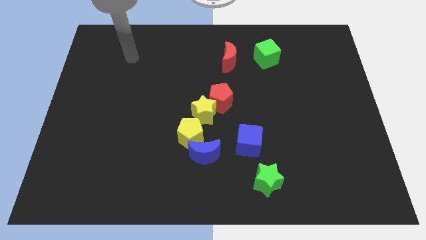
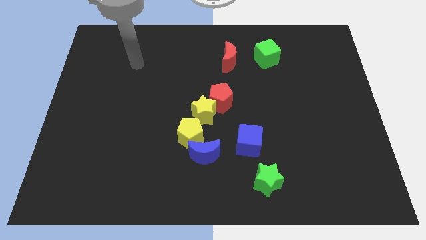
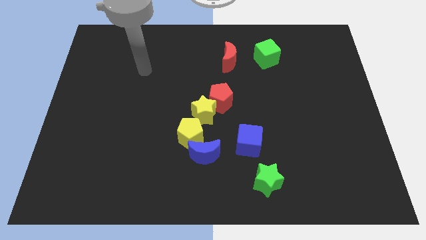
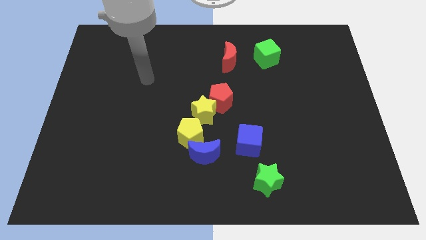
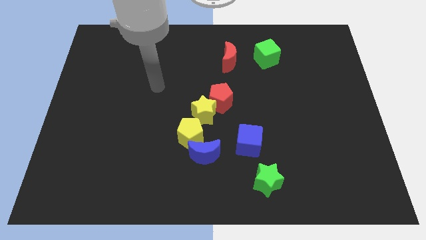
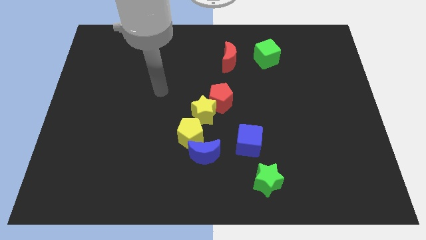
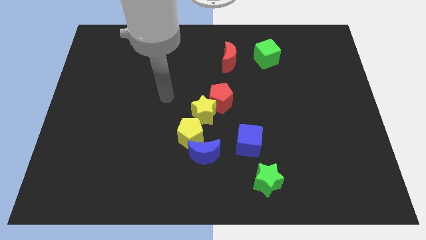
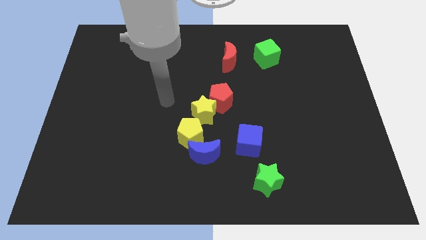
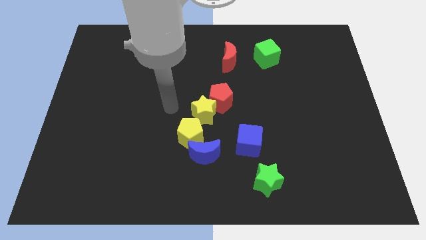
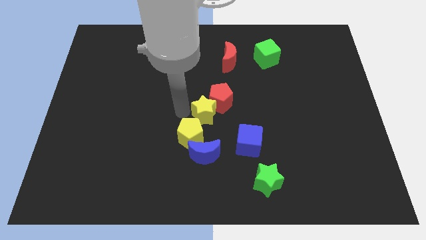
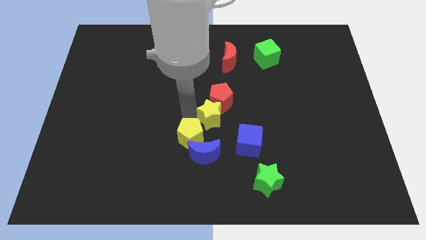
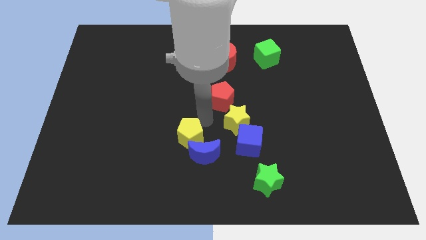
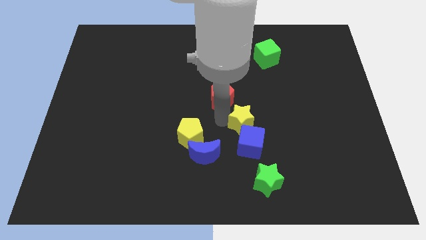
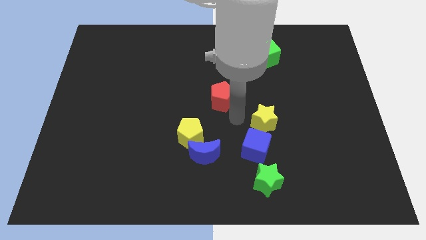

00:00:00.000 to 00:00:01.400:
pull the red pentagon apart from the yellow star

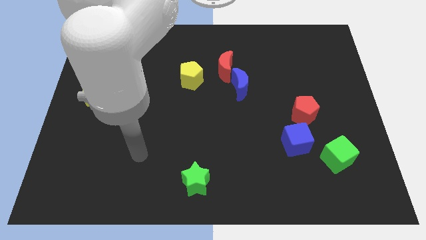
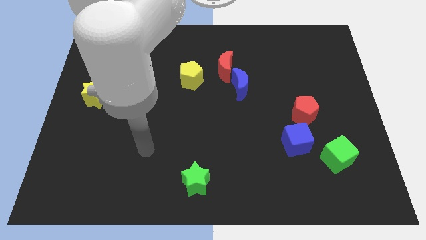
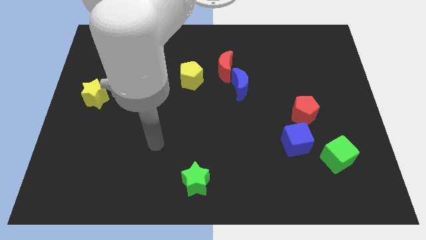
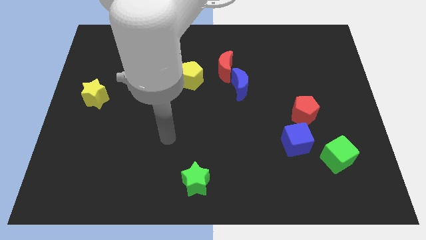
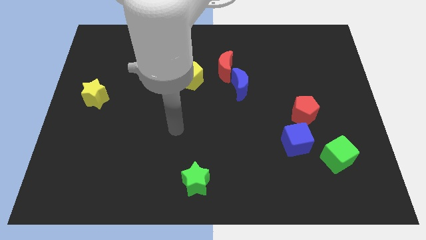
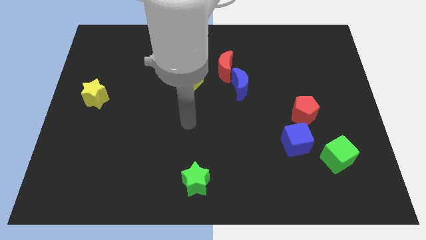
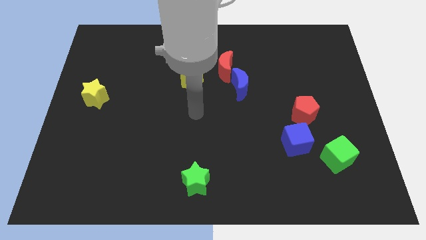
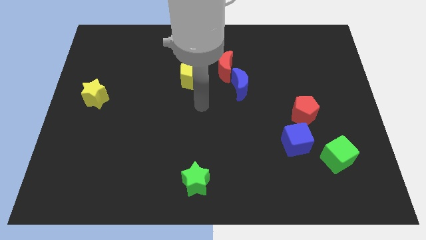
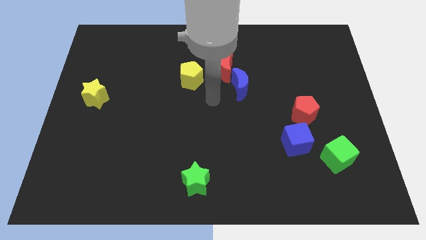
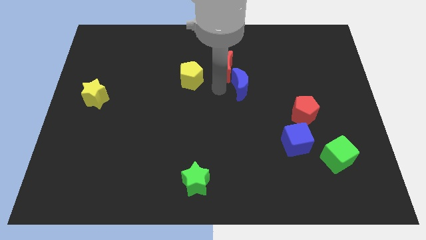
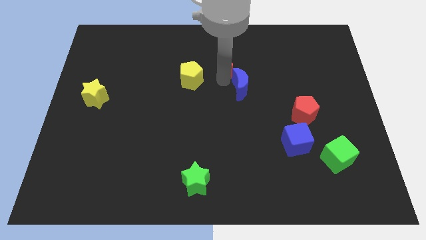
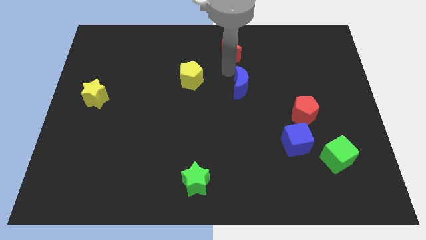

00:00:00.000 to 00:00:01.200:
separate the blue moon from the red moon

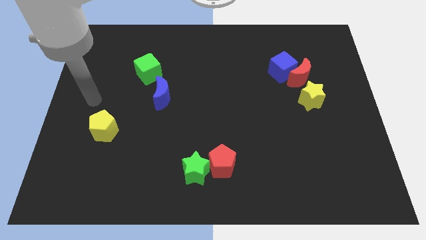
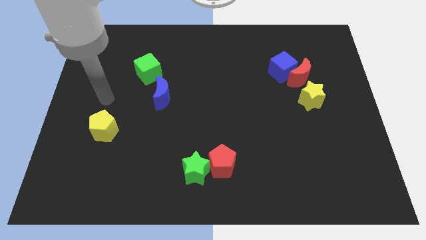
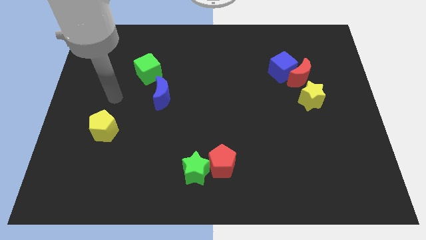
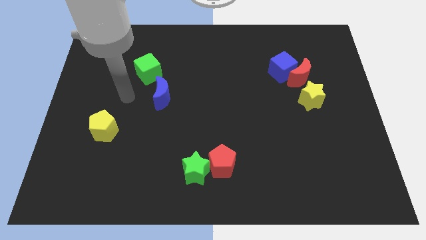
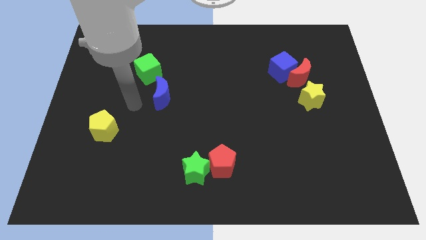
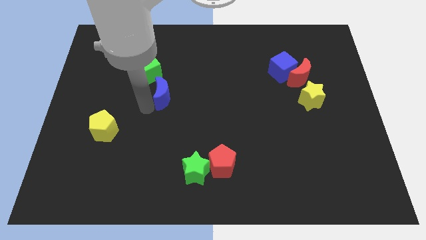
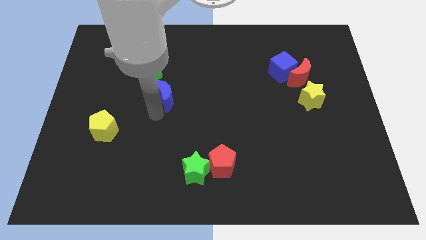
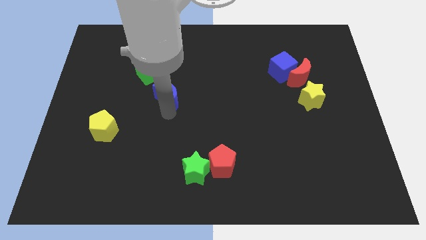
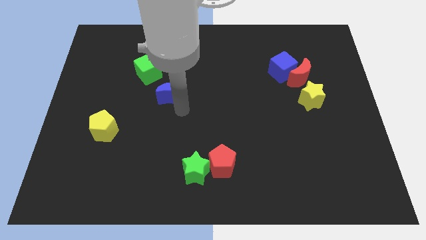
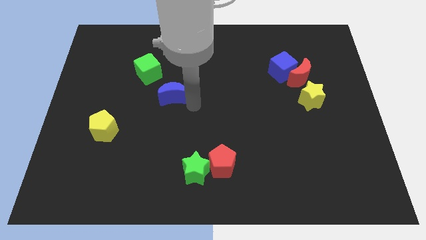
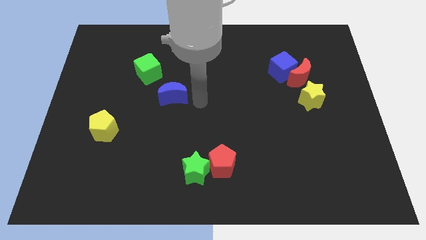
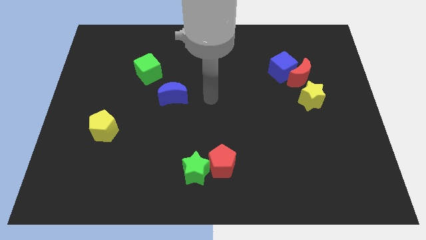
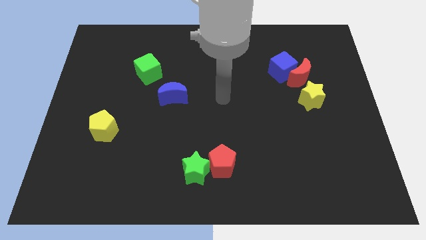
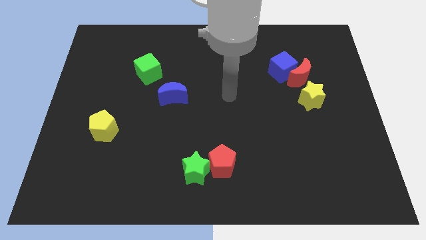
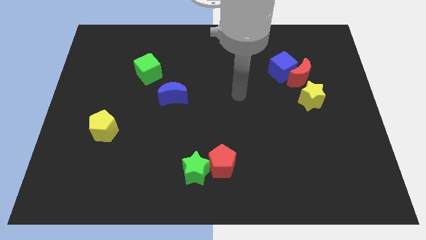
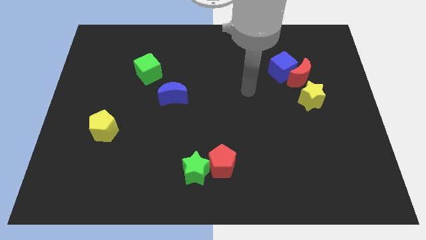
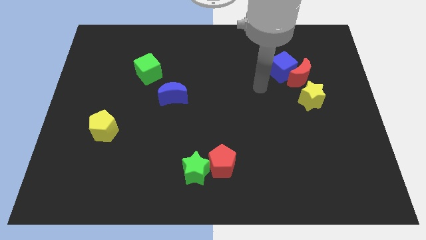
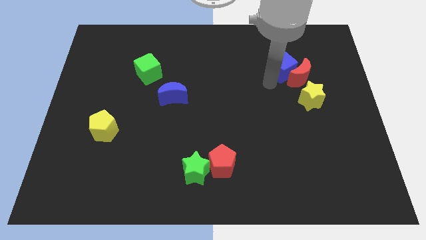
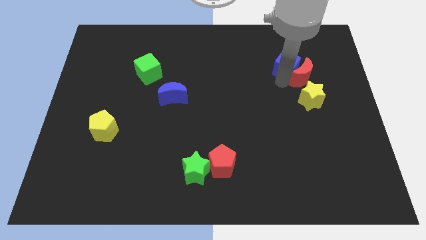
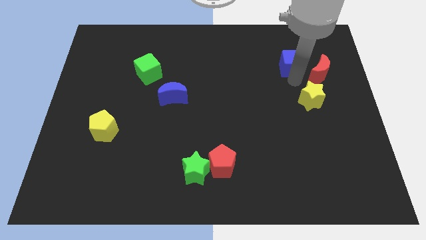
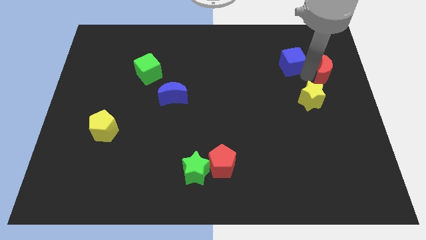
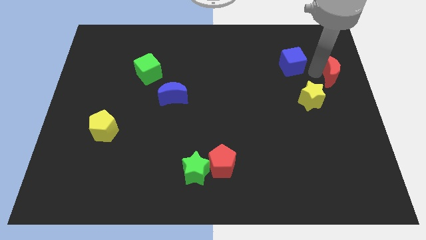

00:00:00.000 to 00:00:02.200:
separate the blue cube from the red moon

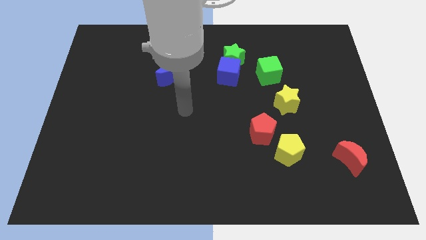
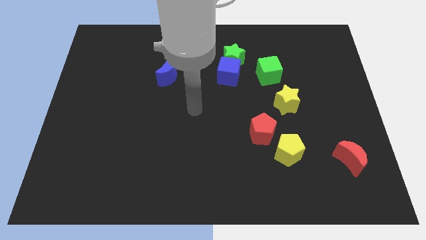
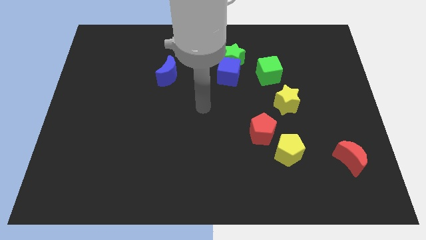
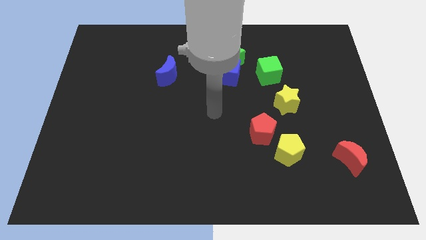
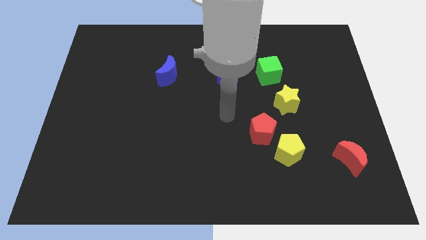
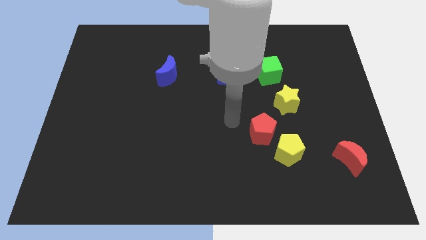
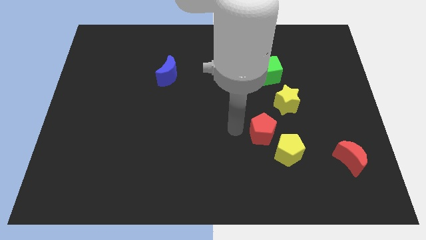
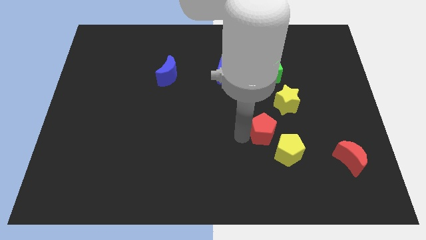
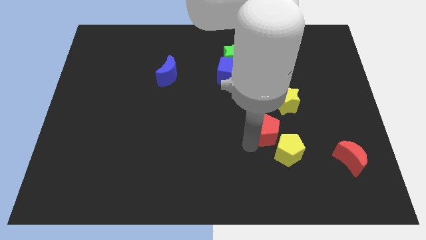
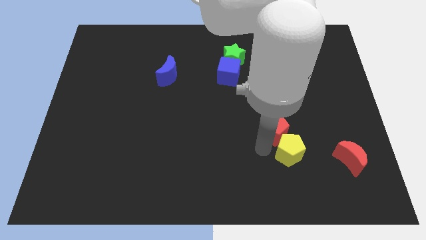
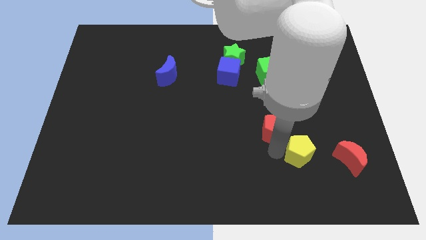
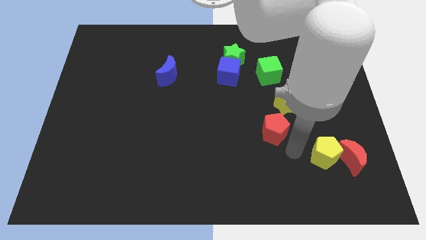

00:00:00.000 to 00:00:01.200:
move the red pentagon away from the yellow pentagon

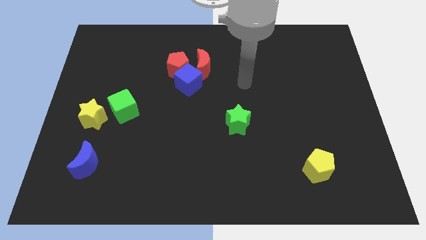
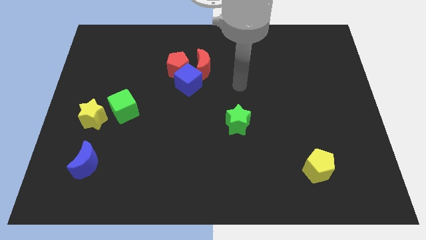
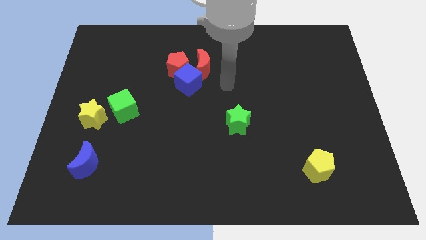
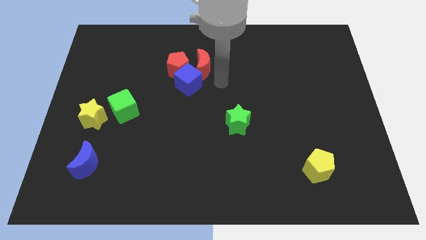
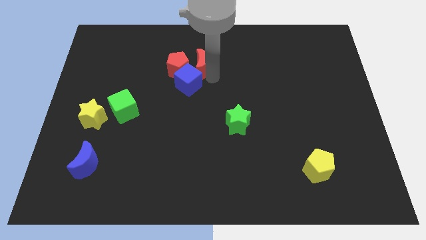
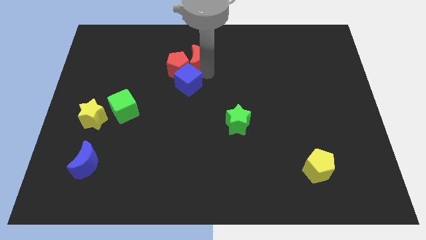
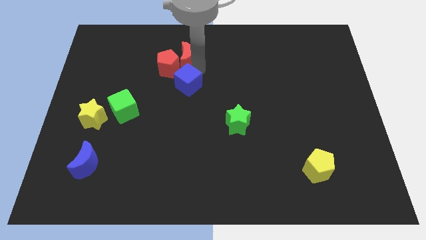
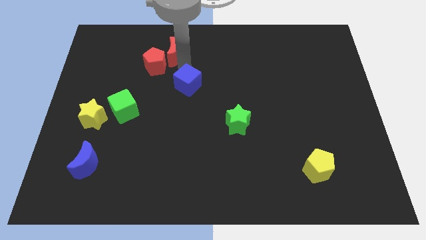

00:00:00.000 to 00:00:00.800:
move the blue cube away from the red pentagon and red moon

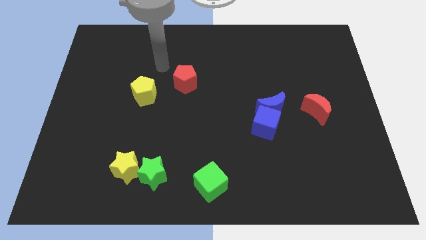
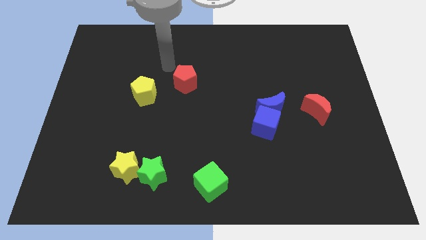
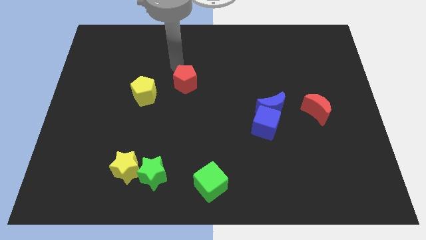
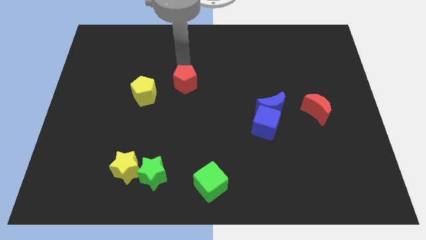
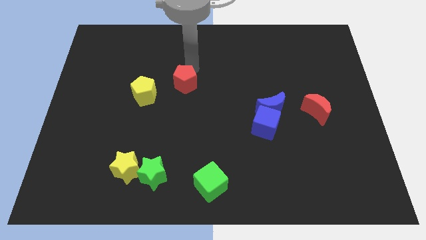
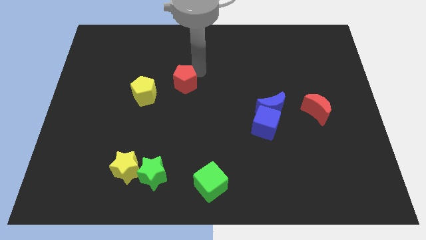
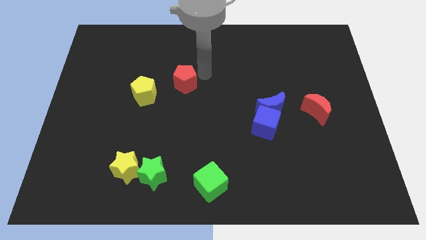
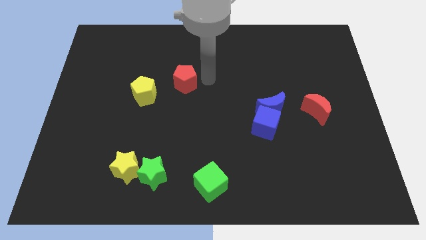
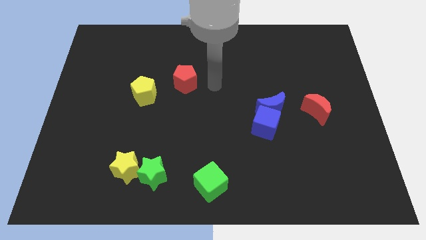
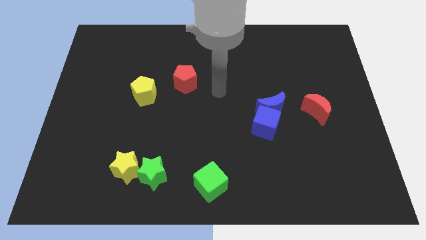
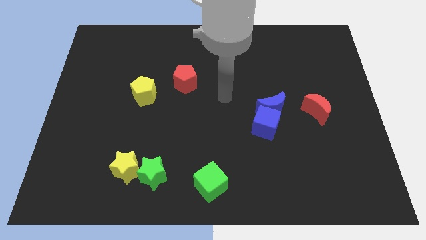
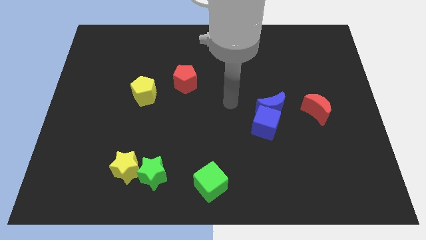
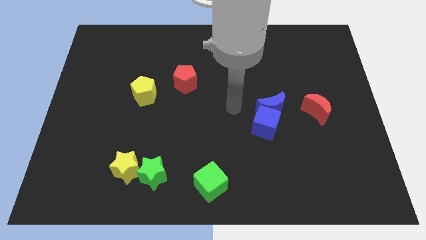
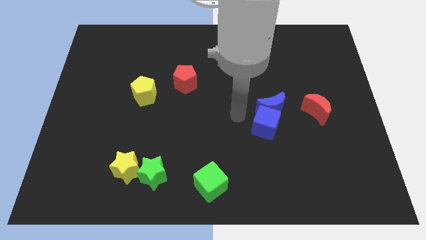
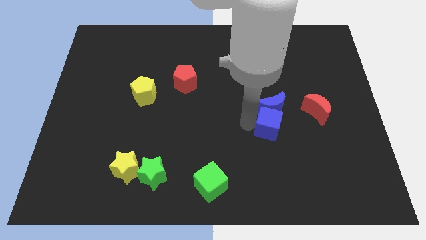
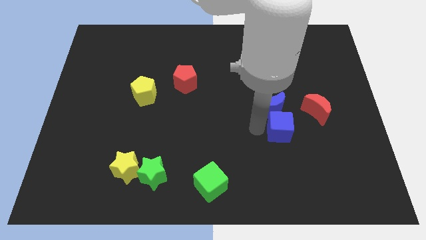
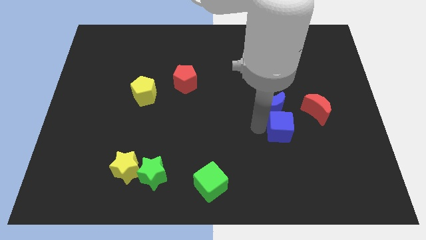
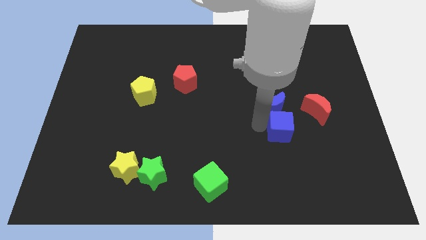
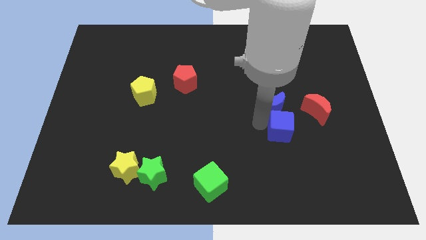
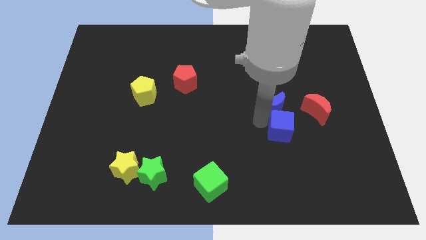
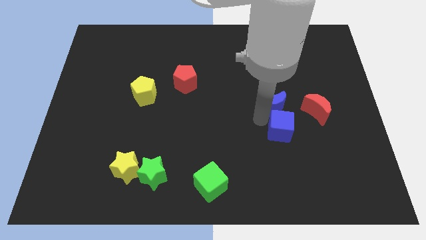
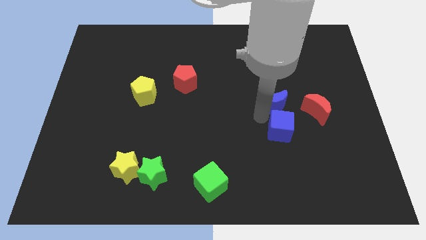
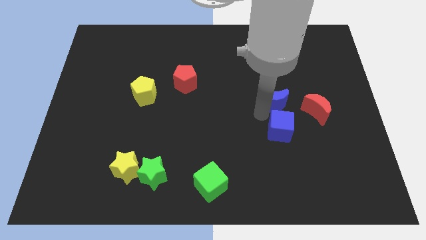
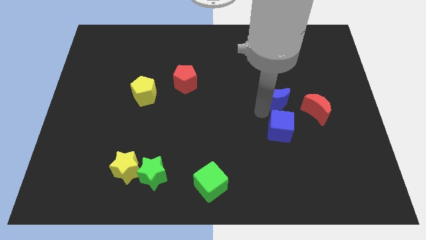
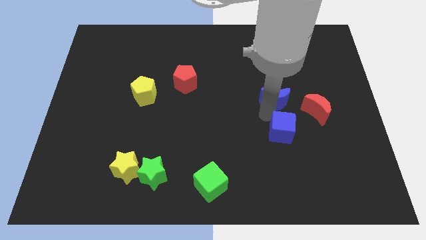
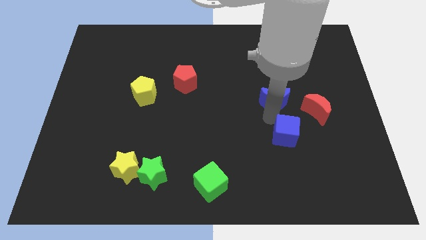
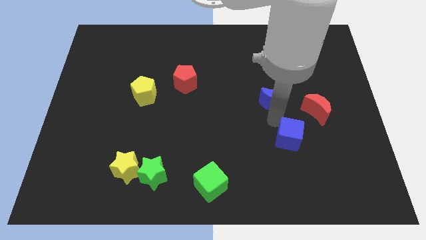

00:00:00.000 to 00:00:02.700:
separate the blue moon from the blue cube
